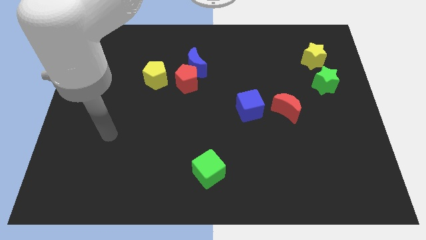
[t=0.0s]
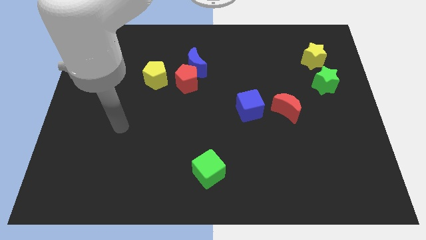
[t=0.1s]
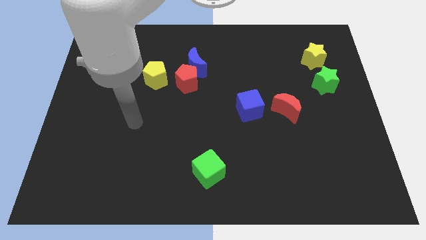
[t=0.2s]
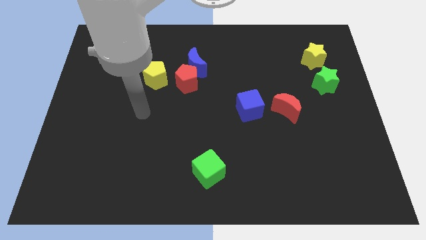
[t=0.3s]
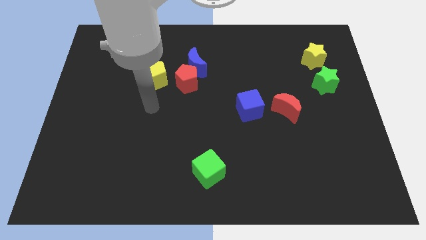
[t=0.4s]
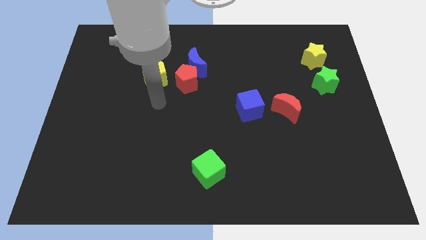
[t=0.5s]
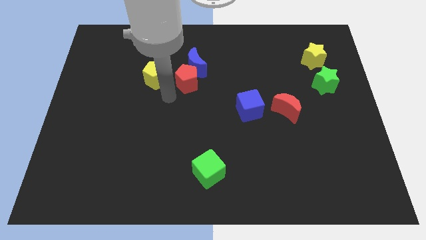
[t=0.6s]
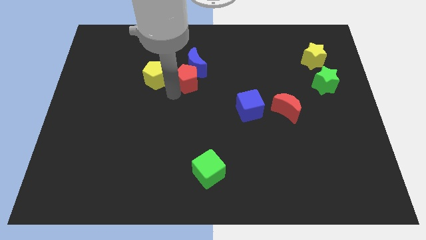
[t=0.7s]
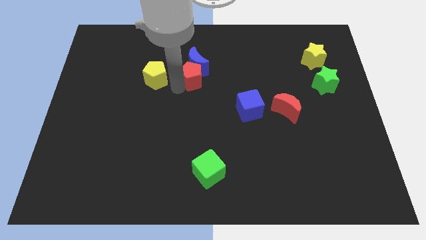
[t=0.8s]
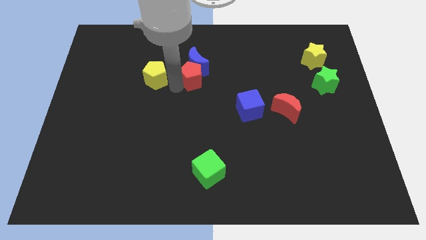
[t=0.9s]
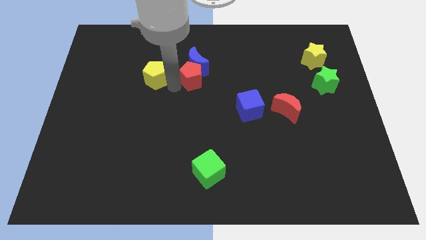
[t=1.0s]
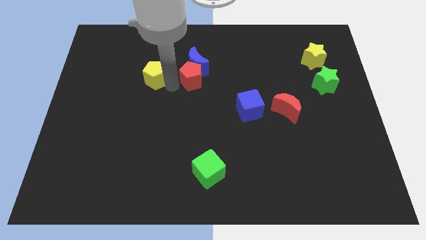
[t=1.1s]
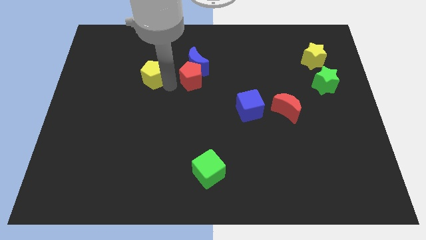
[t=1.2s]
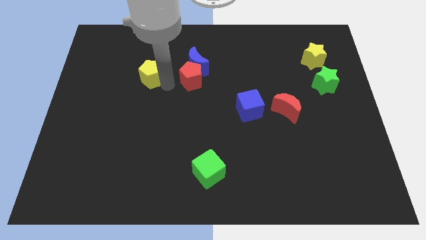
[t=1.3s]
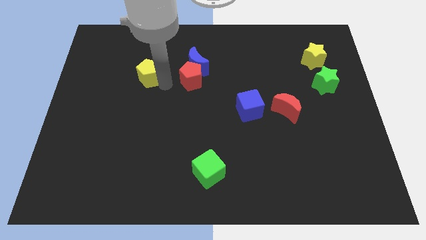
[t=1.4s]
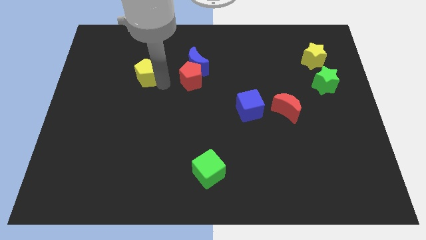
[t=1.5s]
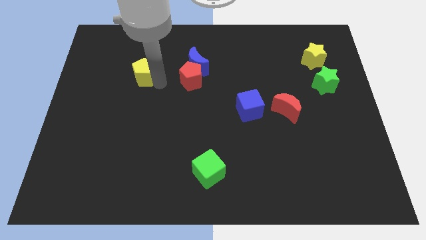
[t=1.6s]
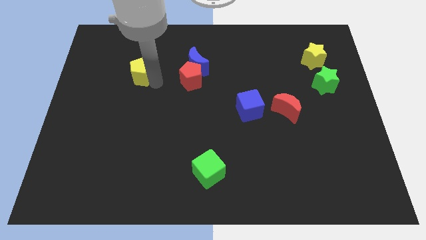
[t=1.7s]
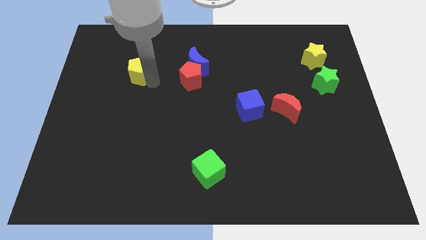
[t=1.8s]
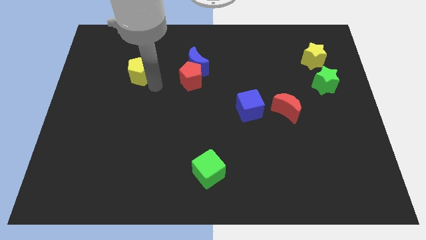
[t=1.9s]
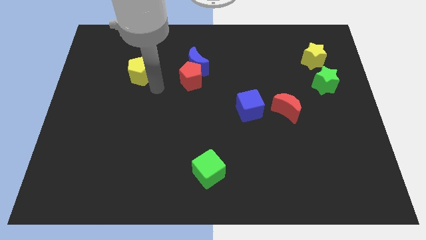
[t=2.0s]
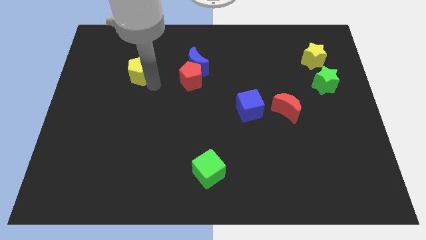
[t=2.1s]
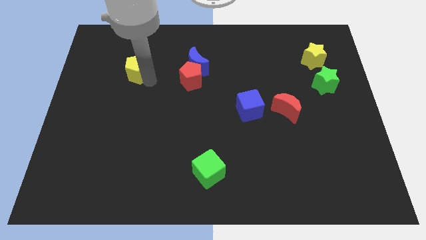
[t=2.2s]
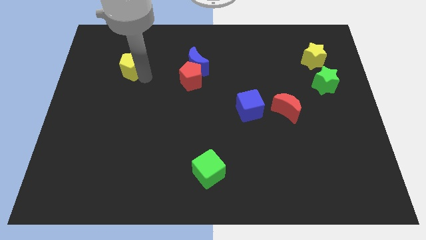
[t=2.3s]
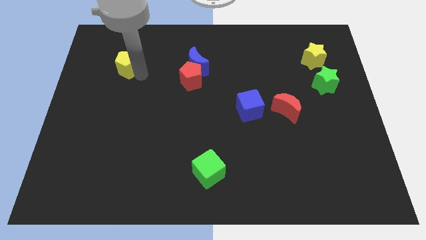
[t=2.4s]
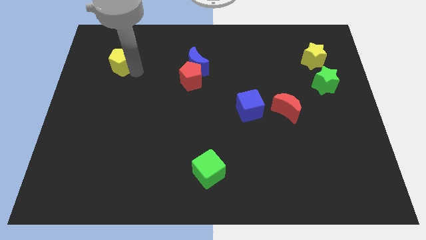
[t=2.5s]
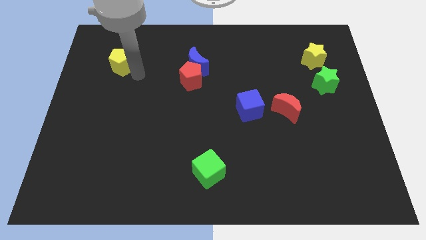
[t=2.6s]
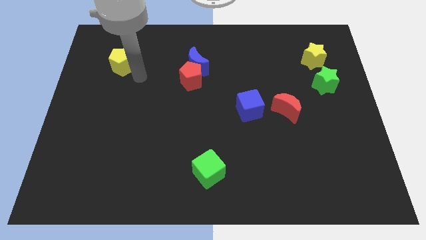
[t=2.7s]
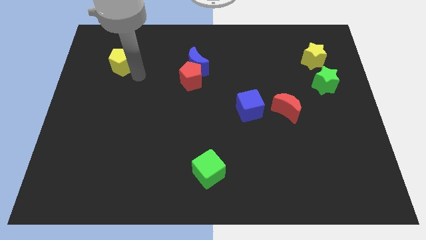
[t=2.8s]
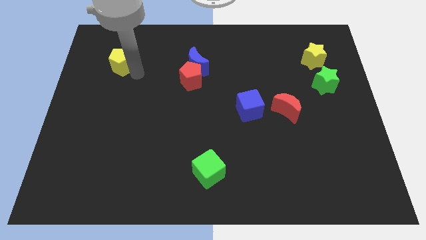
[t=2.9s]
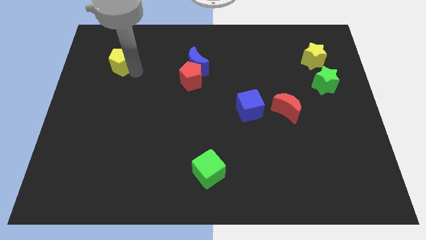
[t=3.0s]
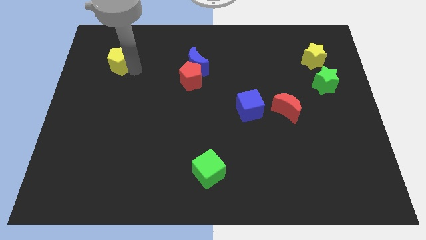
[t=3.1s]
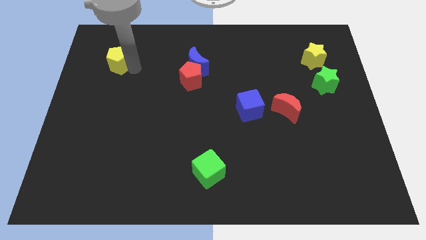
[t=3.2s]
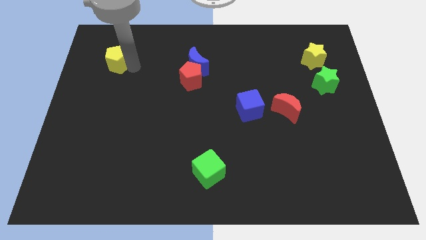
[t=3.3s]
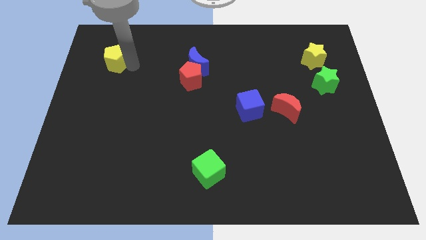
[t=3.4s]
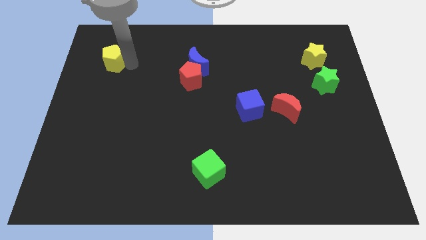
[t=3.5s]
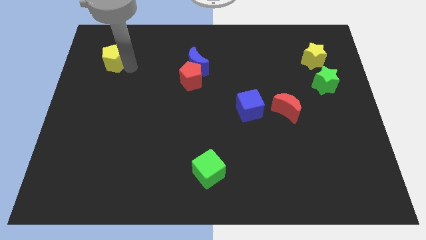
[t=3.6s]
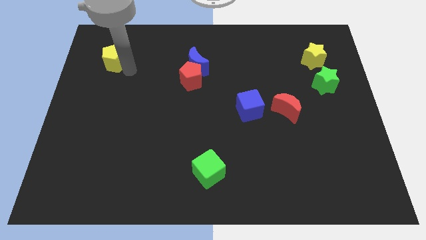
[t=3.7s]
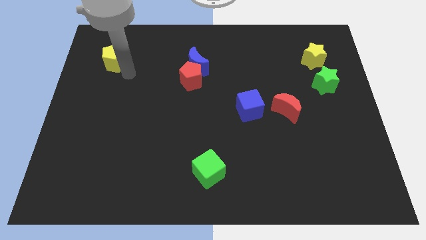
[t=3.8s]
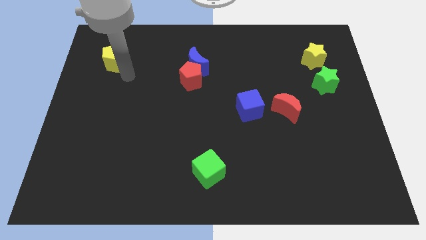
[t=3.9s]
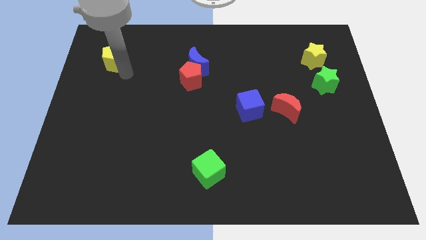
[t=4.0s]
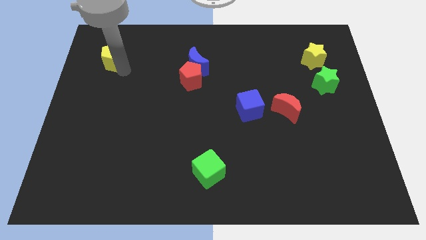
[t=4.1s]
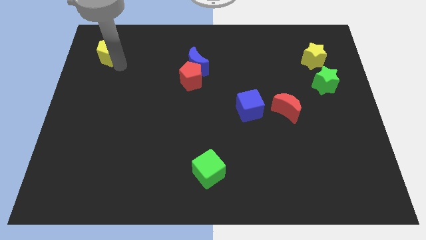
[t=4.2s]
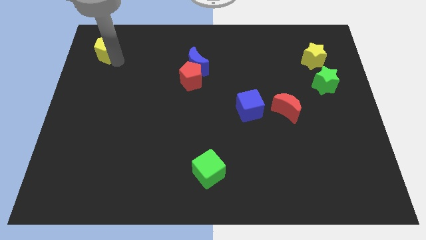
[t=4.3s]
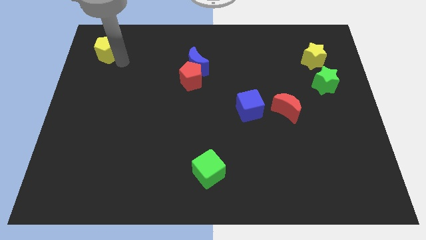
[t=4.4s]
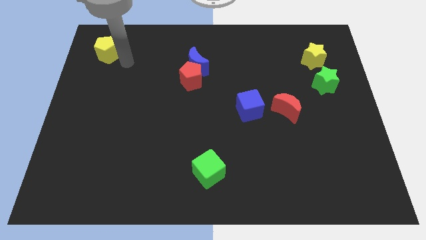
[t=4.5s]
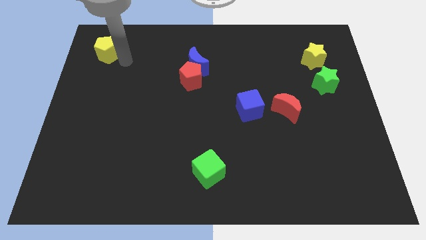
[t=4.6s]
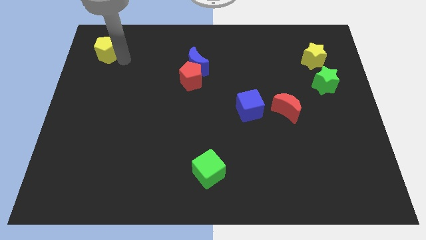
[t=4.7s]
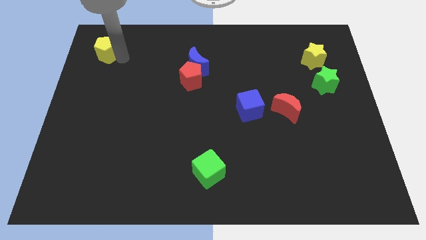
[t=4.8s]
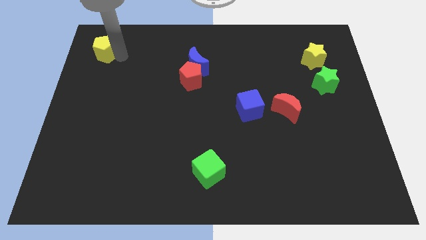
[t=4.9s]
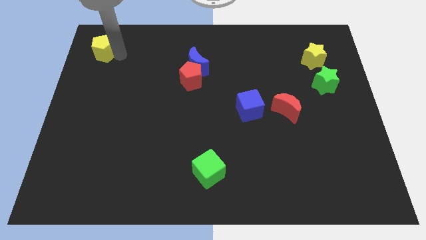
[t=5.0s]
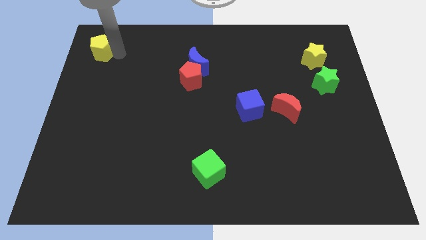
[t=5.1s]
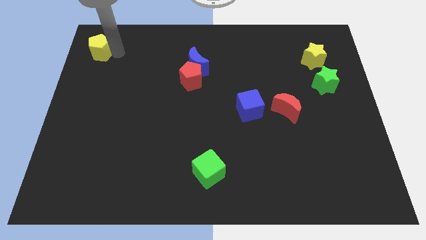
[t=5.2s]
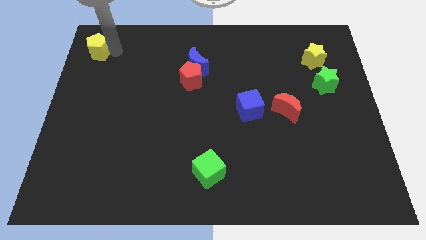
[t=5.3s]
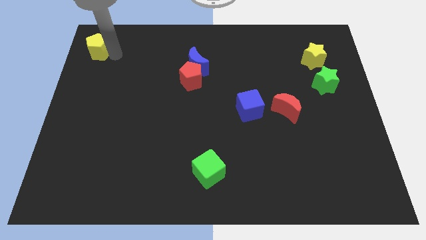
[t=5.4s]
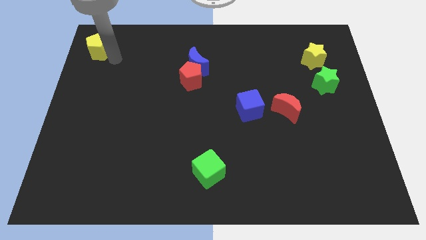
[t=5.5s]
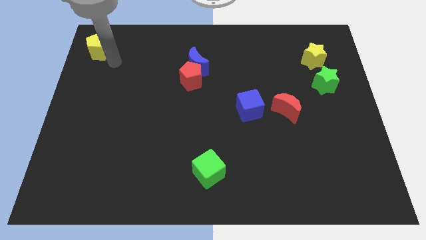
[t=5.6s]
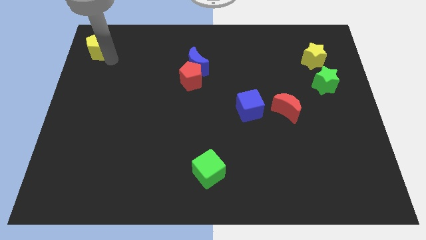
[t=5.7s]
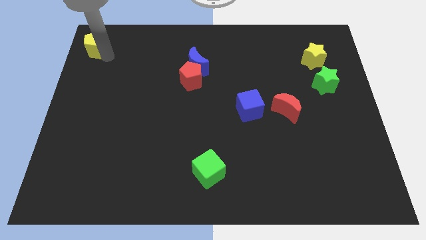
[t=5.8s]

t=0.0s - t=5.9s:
push the yellow pentagon to the upper left corner

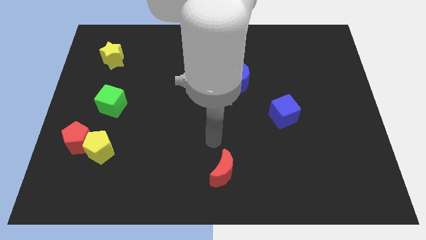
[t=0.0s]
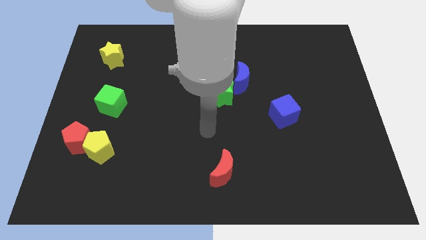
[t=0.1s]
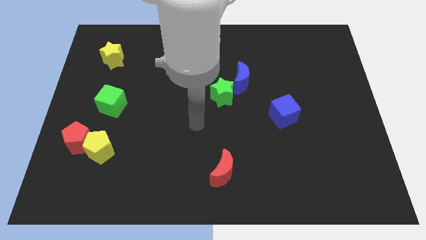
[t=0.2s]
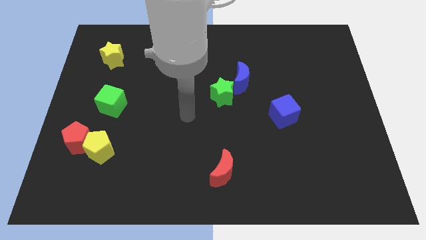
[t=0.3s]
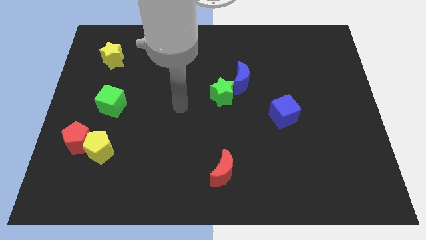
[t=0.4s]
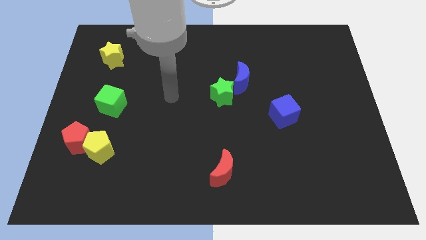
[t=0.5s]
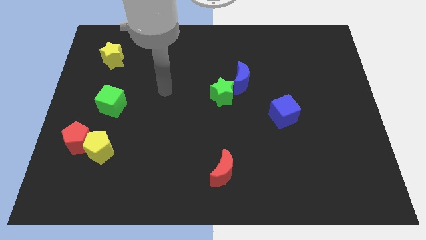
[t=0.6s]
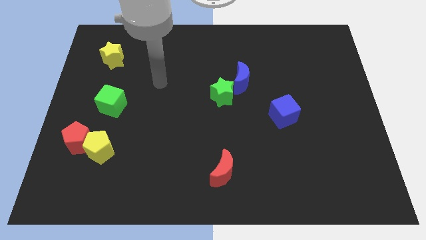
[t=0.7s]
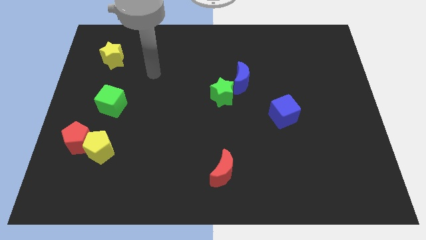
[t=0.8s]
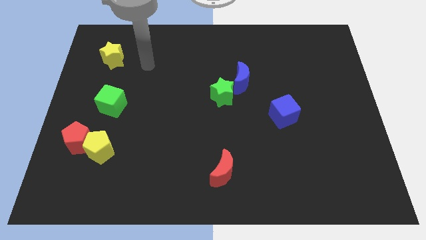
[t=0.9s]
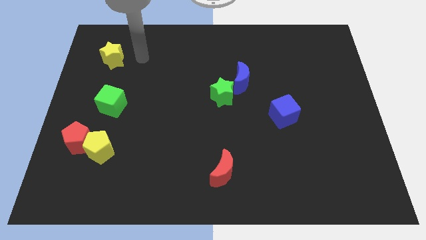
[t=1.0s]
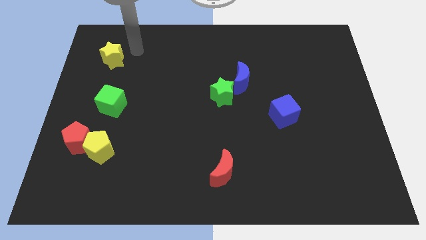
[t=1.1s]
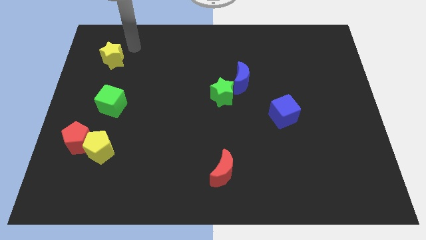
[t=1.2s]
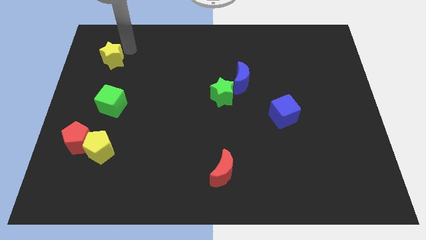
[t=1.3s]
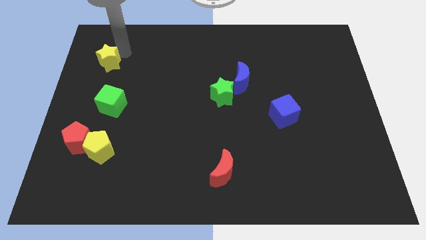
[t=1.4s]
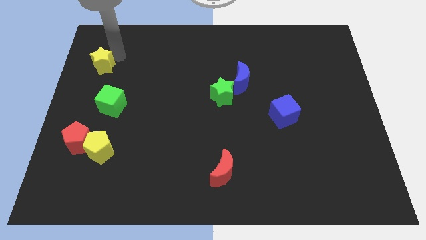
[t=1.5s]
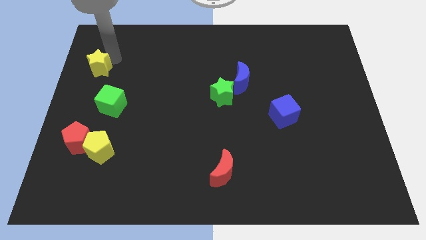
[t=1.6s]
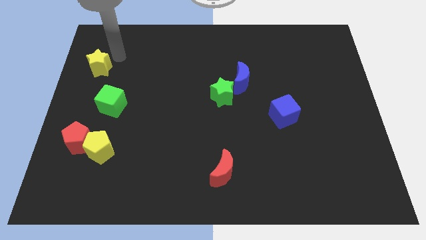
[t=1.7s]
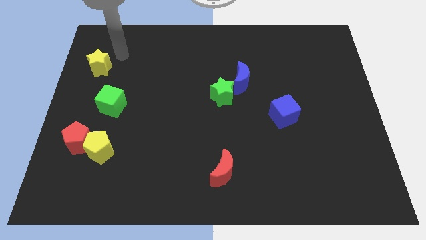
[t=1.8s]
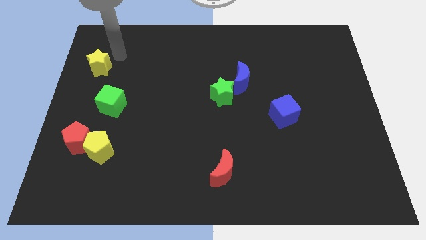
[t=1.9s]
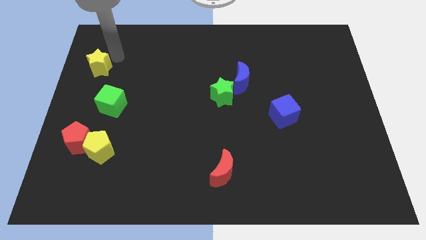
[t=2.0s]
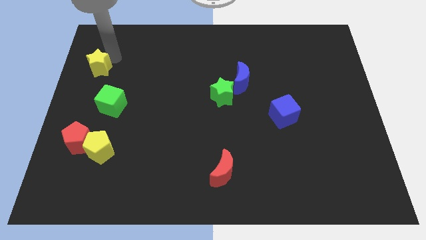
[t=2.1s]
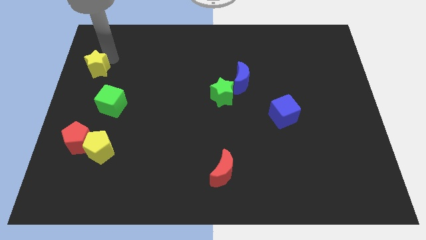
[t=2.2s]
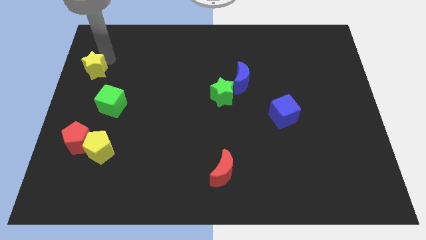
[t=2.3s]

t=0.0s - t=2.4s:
put the yellow star to the center left
